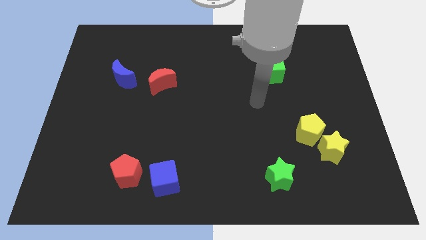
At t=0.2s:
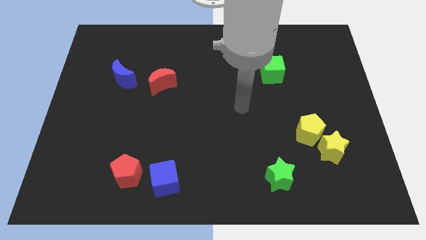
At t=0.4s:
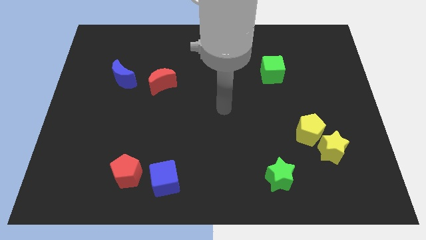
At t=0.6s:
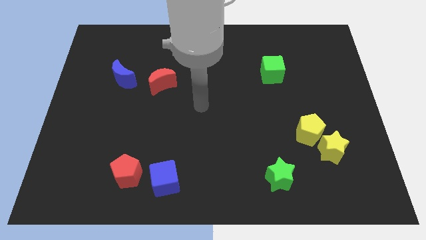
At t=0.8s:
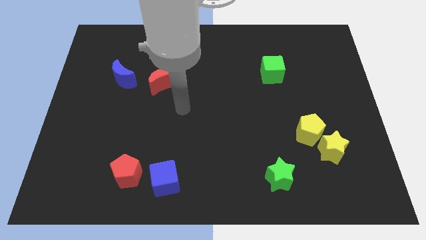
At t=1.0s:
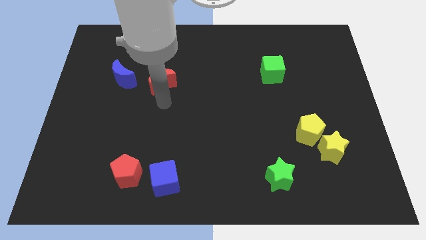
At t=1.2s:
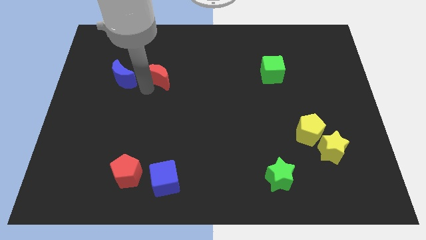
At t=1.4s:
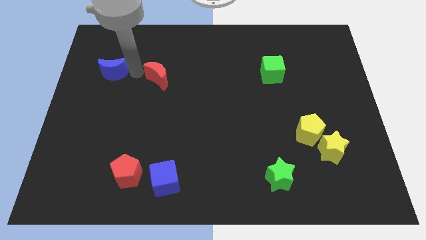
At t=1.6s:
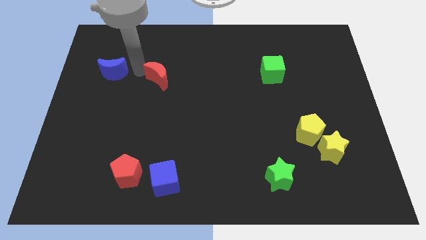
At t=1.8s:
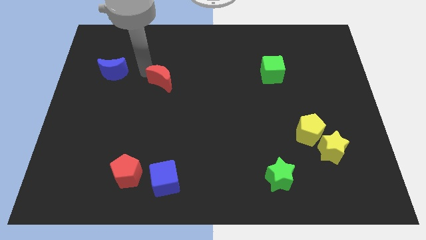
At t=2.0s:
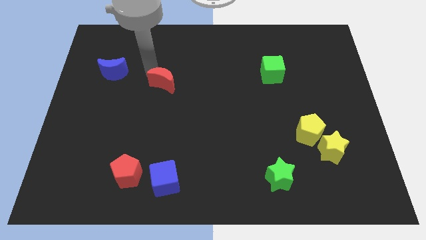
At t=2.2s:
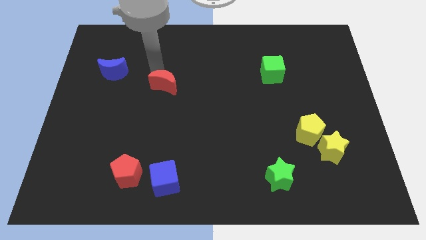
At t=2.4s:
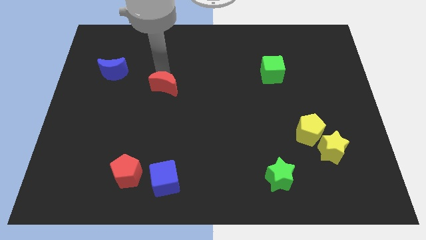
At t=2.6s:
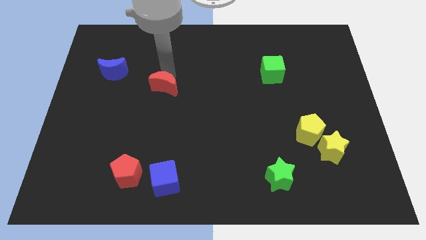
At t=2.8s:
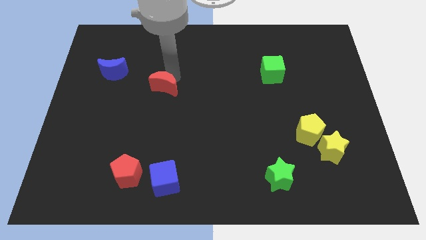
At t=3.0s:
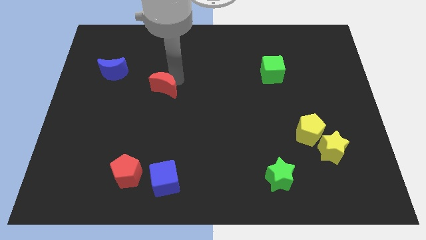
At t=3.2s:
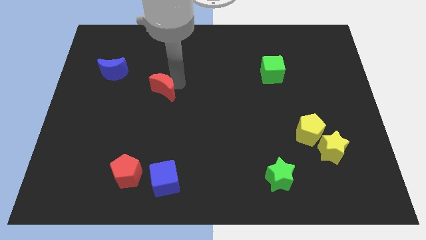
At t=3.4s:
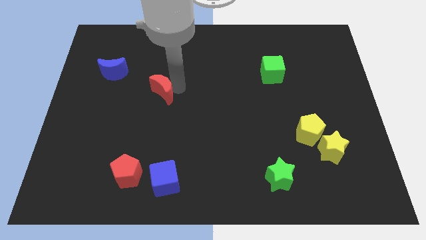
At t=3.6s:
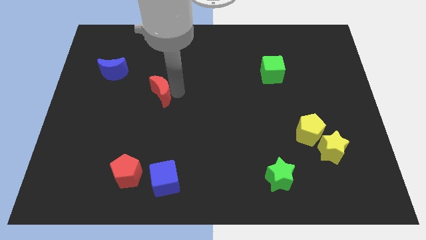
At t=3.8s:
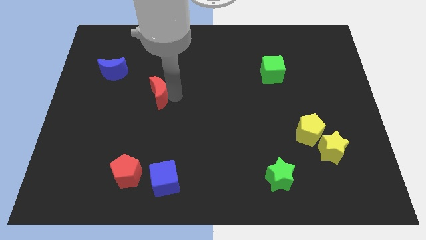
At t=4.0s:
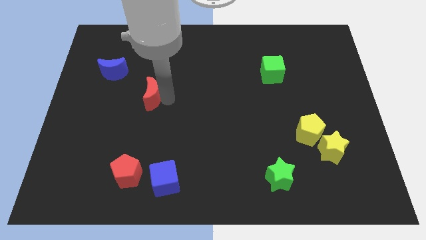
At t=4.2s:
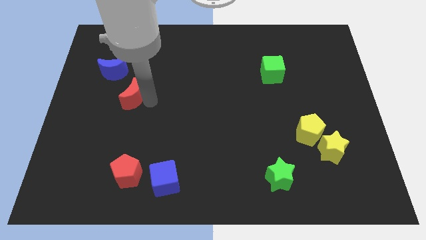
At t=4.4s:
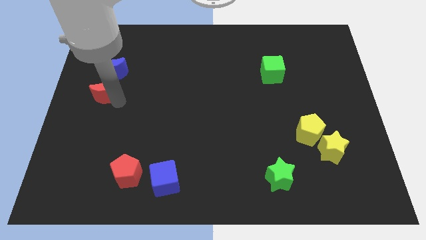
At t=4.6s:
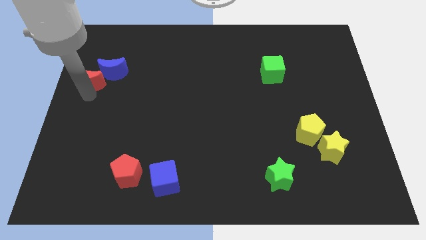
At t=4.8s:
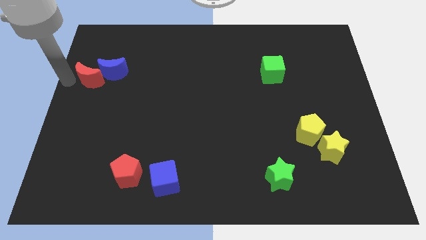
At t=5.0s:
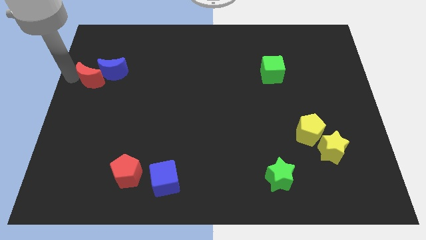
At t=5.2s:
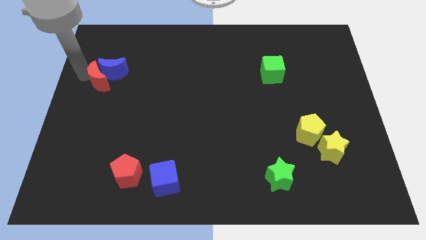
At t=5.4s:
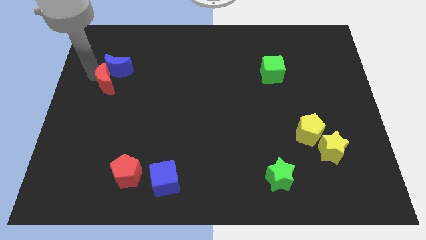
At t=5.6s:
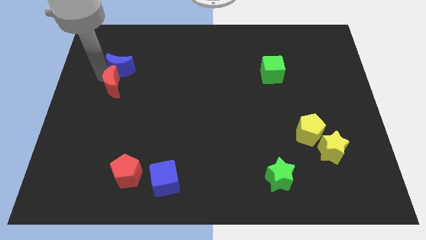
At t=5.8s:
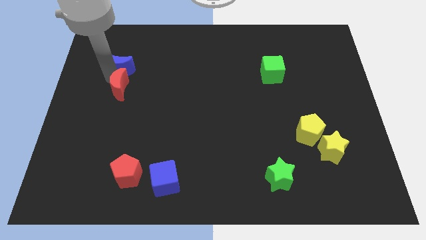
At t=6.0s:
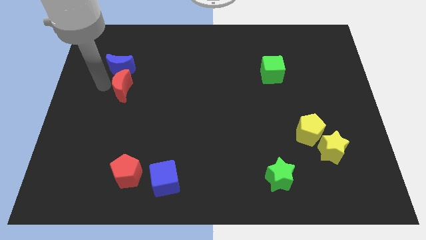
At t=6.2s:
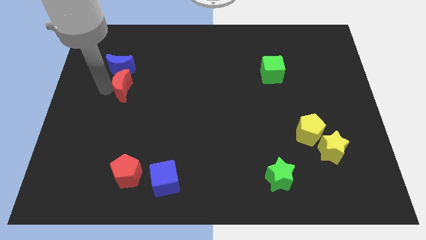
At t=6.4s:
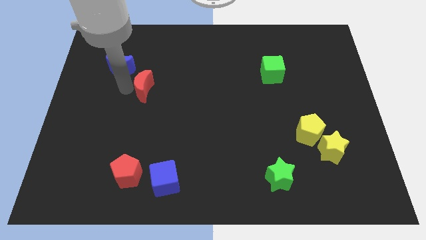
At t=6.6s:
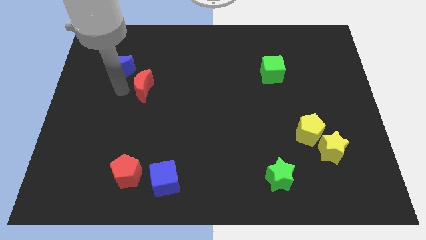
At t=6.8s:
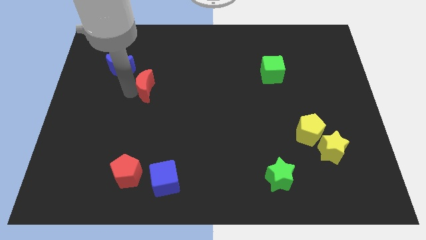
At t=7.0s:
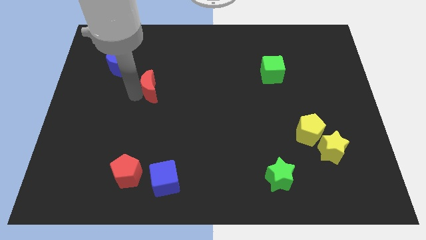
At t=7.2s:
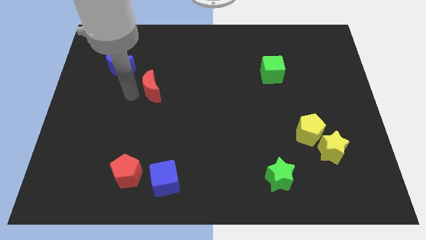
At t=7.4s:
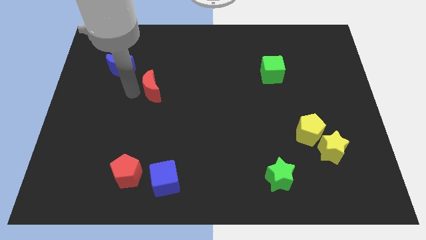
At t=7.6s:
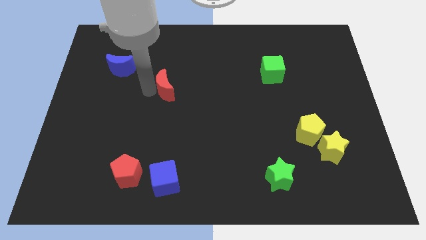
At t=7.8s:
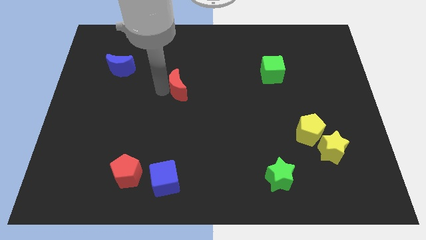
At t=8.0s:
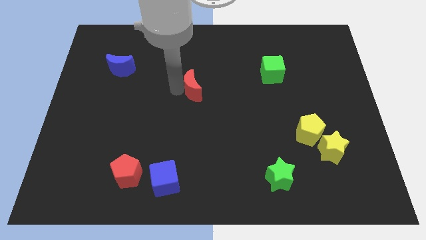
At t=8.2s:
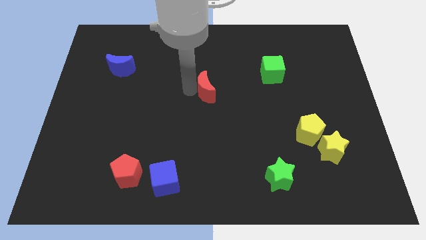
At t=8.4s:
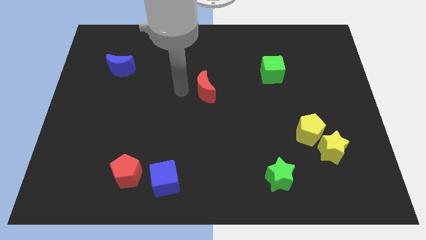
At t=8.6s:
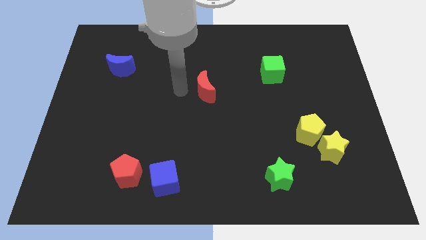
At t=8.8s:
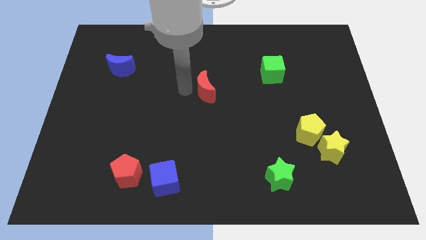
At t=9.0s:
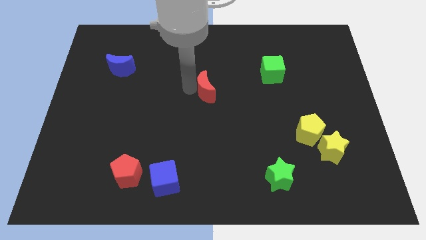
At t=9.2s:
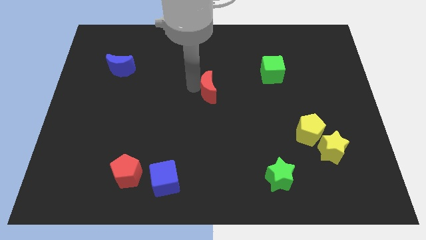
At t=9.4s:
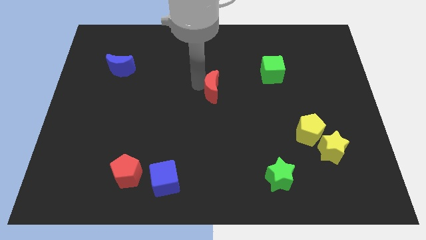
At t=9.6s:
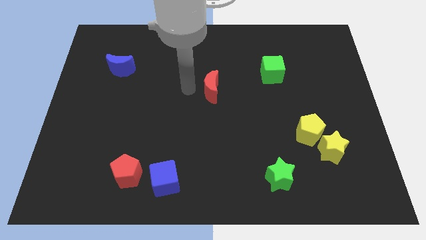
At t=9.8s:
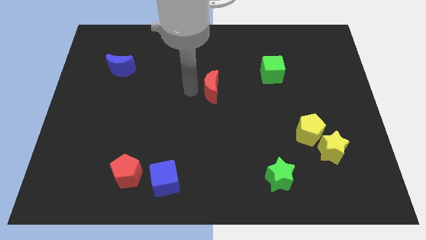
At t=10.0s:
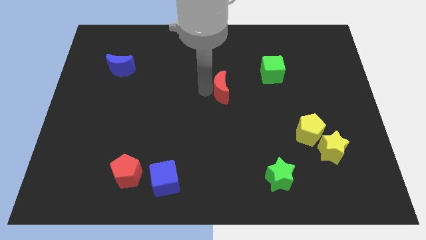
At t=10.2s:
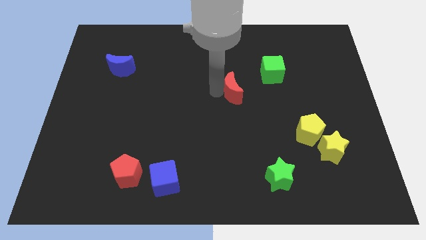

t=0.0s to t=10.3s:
move the red moon to the bottom left side of the green cube

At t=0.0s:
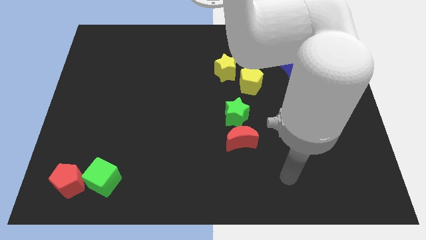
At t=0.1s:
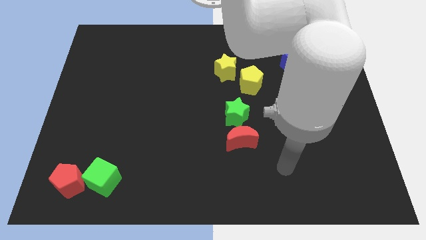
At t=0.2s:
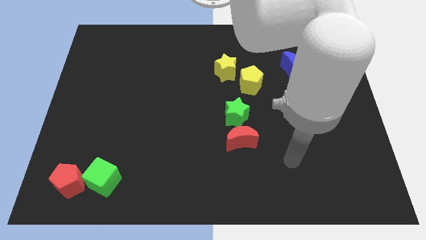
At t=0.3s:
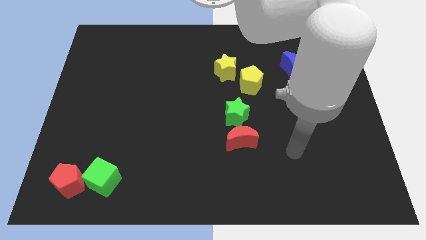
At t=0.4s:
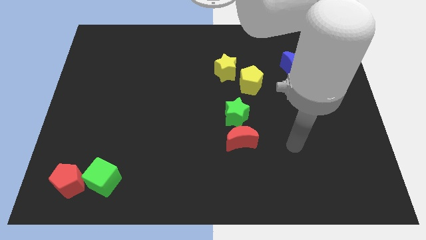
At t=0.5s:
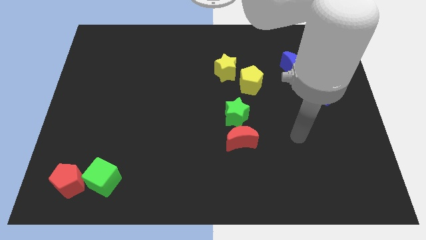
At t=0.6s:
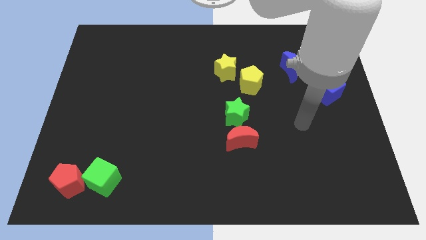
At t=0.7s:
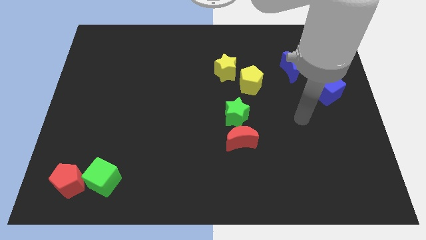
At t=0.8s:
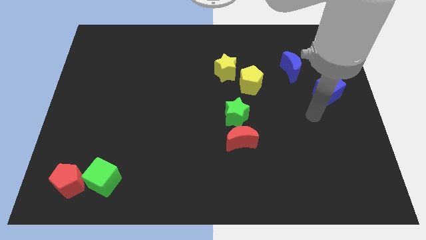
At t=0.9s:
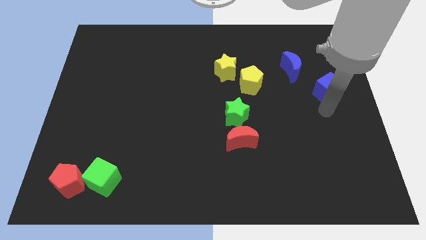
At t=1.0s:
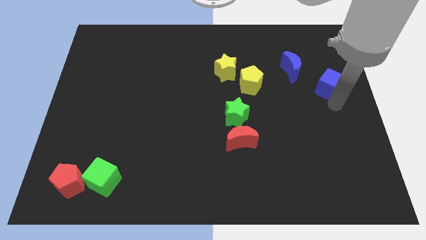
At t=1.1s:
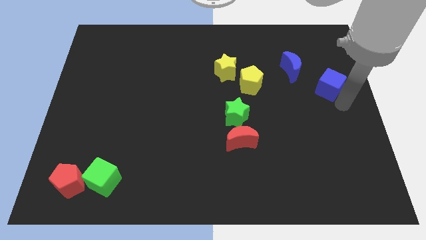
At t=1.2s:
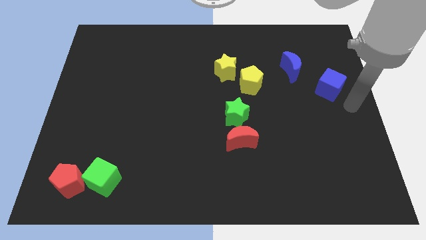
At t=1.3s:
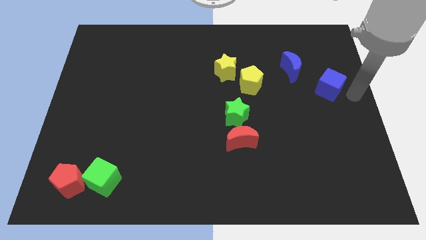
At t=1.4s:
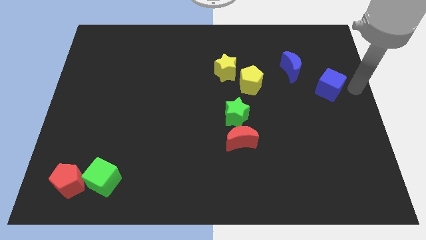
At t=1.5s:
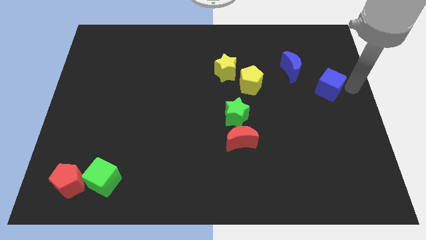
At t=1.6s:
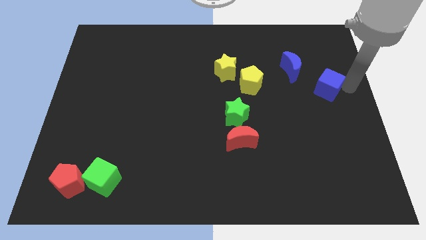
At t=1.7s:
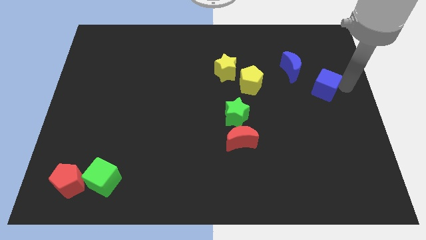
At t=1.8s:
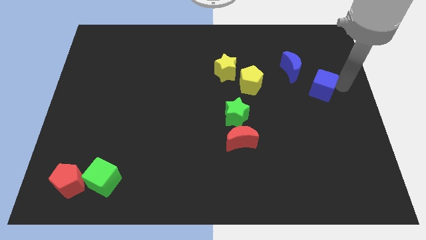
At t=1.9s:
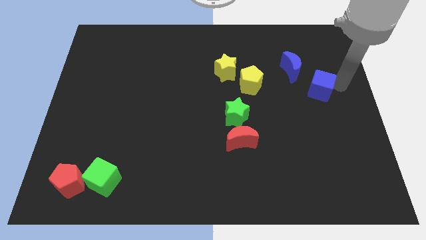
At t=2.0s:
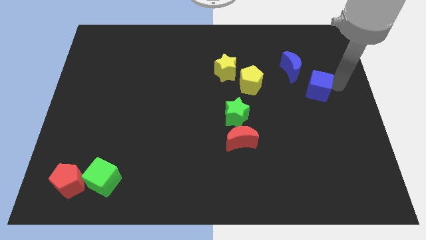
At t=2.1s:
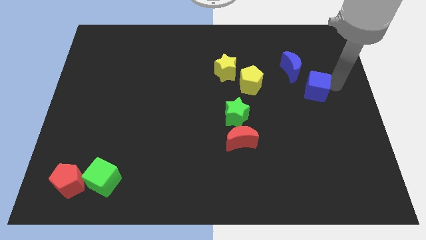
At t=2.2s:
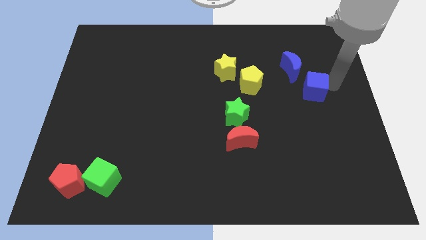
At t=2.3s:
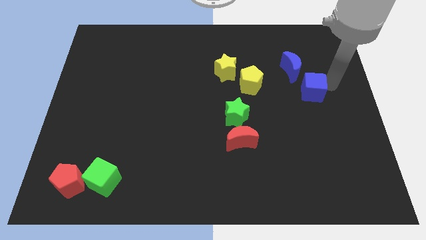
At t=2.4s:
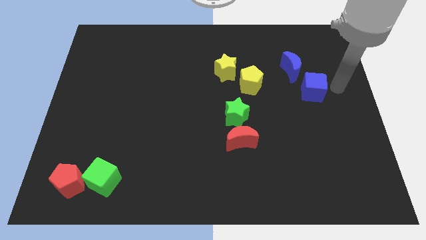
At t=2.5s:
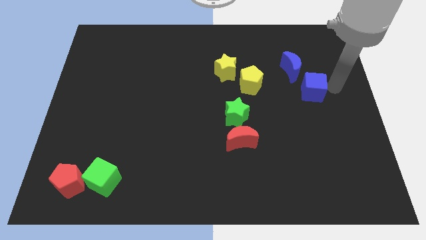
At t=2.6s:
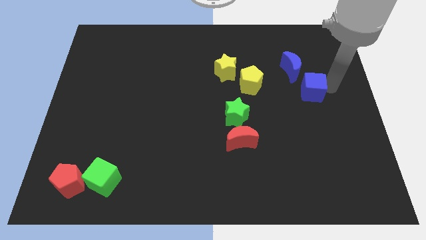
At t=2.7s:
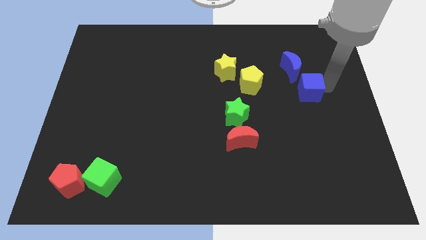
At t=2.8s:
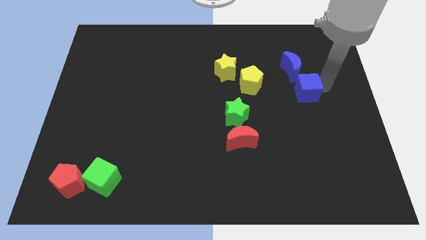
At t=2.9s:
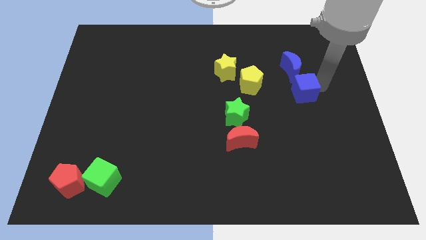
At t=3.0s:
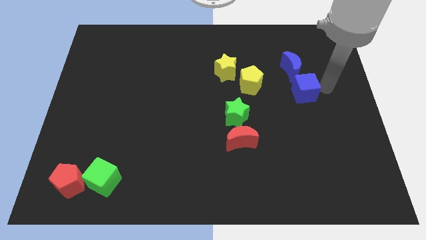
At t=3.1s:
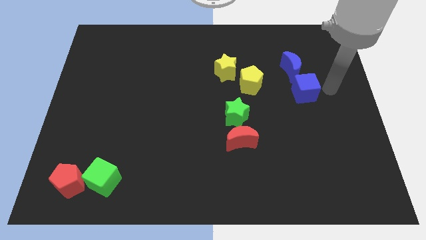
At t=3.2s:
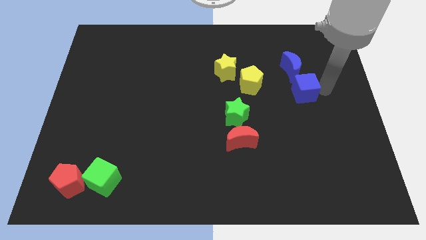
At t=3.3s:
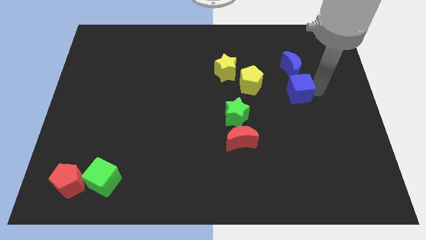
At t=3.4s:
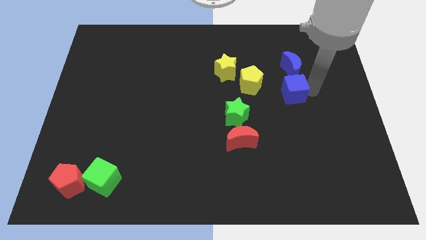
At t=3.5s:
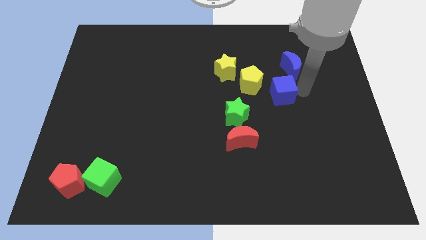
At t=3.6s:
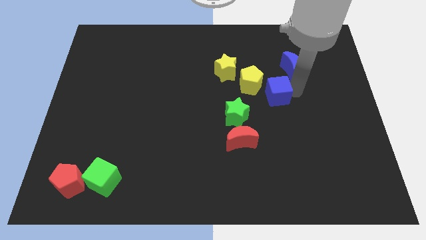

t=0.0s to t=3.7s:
slide the blue cube to the top right side of the green star
